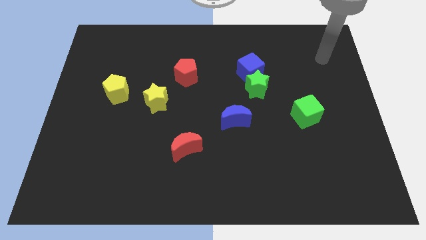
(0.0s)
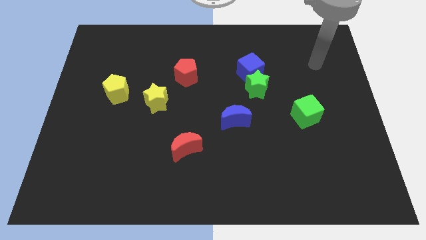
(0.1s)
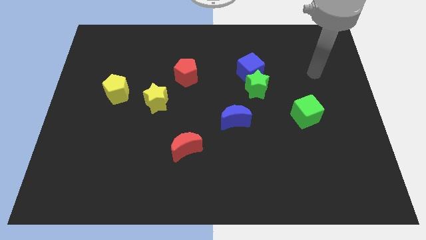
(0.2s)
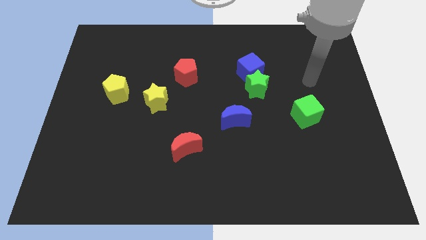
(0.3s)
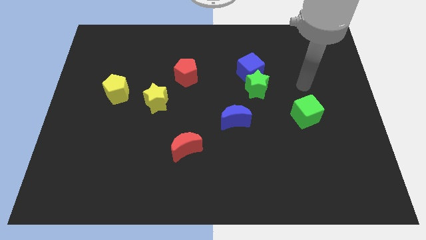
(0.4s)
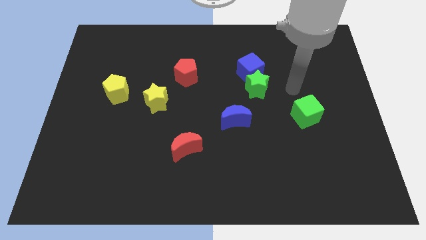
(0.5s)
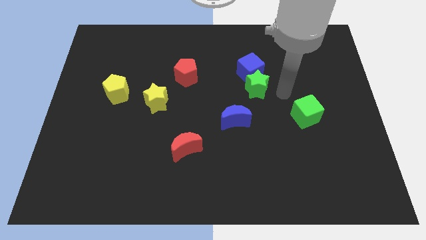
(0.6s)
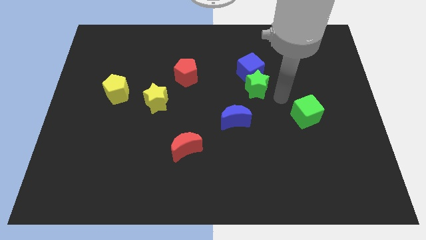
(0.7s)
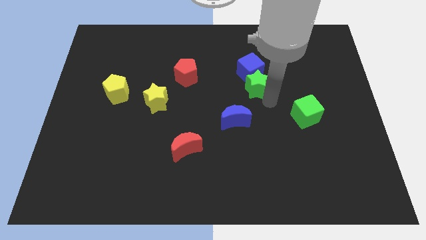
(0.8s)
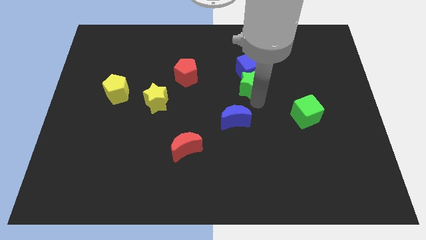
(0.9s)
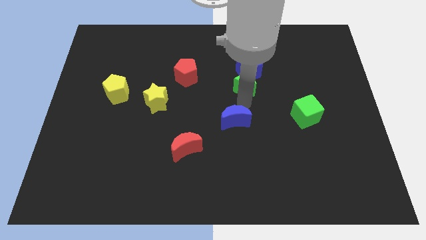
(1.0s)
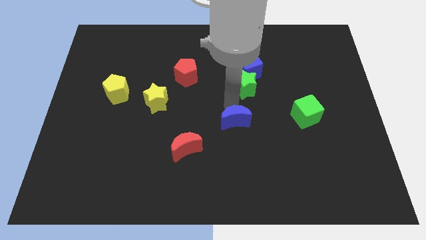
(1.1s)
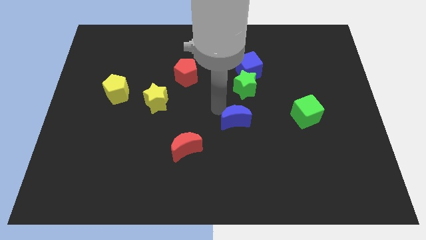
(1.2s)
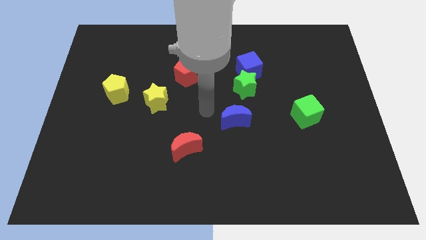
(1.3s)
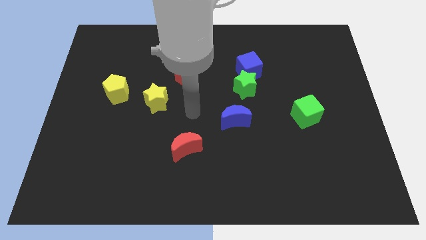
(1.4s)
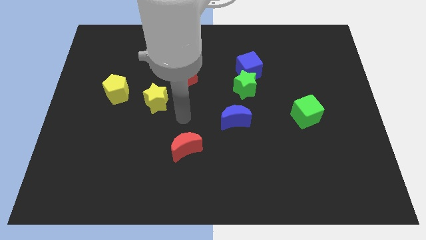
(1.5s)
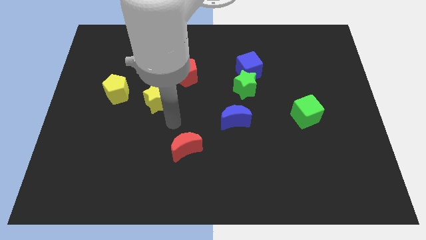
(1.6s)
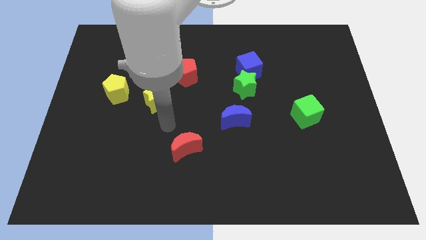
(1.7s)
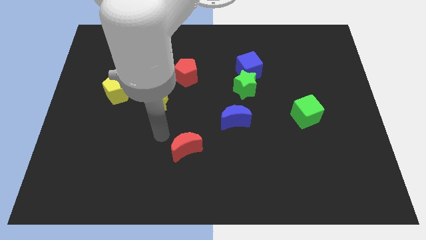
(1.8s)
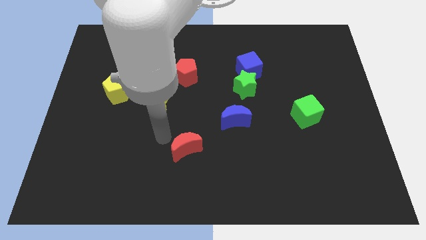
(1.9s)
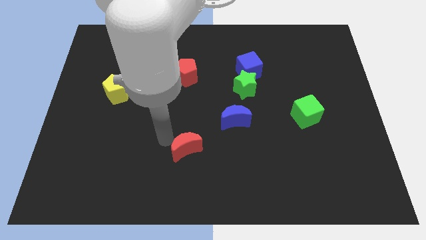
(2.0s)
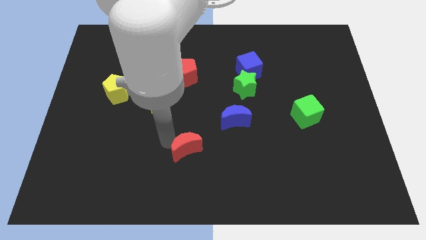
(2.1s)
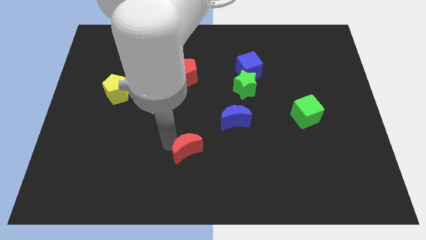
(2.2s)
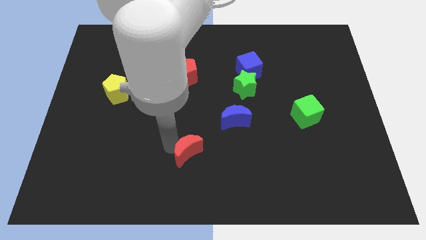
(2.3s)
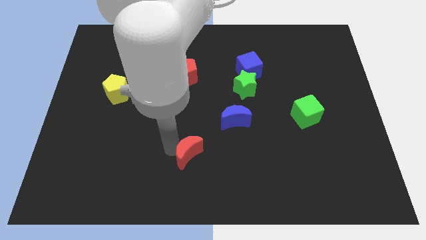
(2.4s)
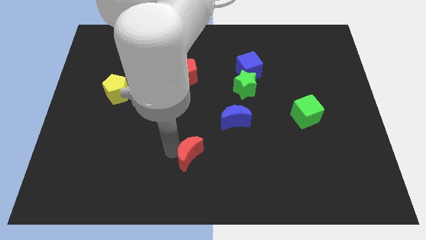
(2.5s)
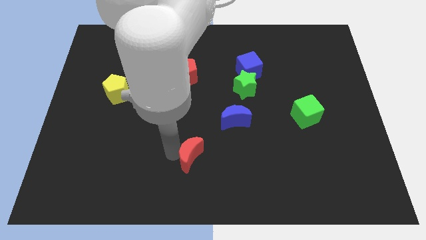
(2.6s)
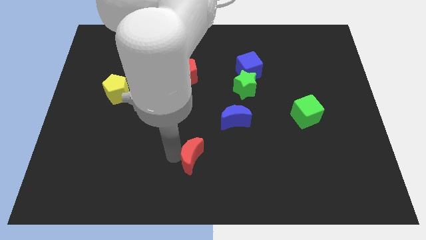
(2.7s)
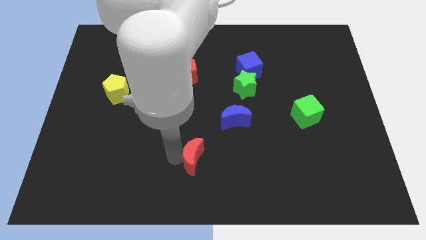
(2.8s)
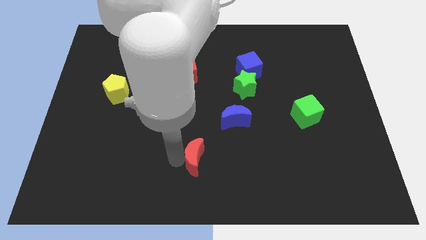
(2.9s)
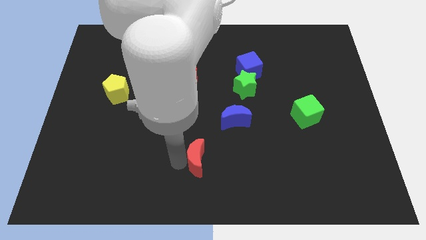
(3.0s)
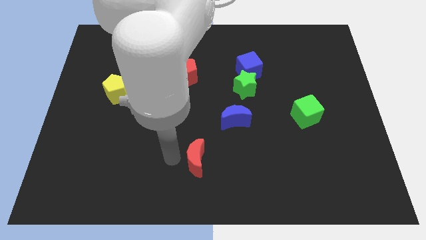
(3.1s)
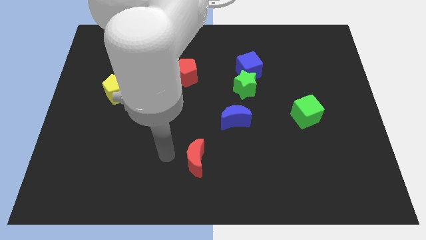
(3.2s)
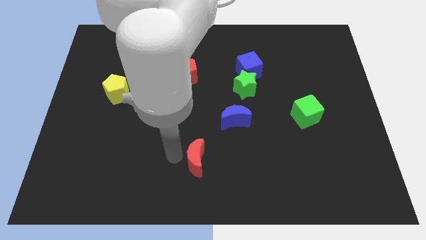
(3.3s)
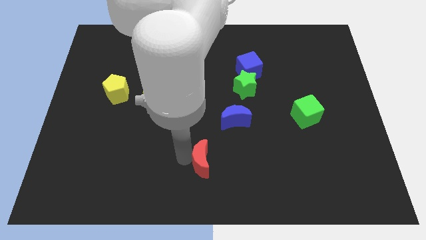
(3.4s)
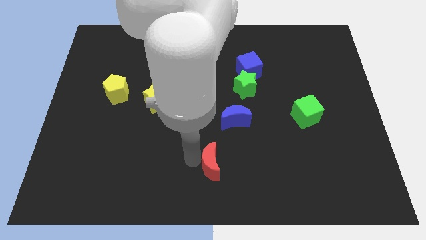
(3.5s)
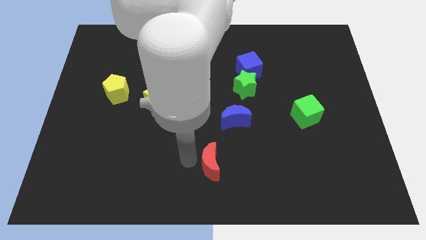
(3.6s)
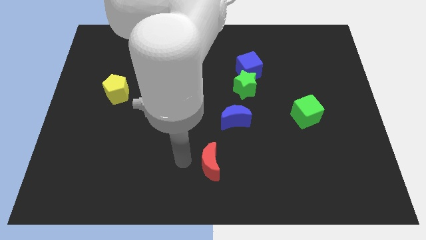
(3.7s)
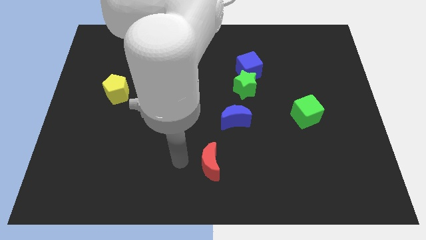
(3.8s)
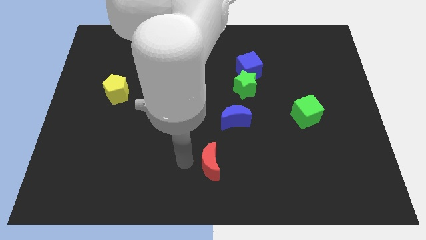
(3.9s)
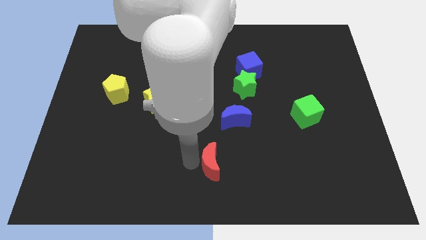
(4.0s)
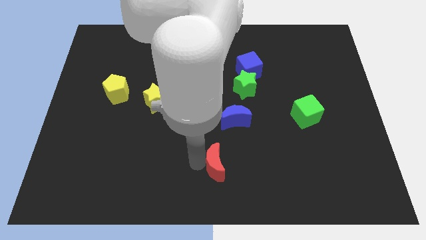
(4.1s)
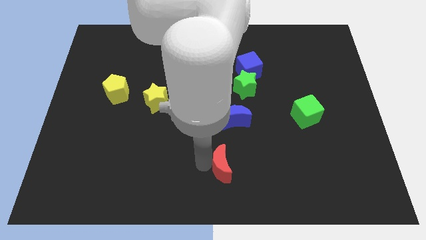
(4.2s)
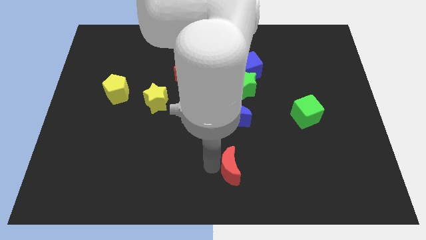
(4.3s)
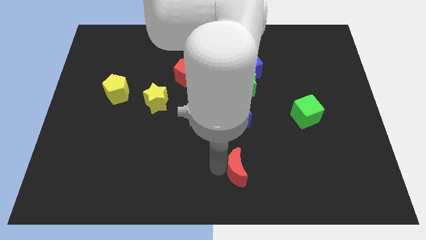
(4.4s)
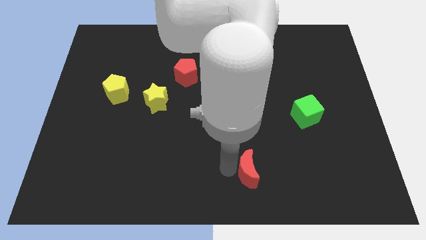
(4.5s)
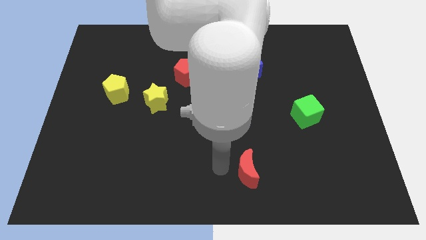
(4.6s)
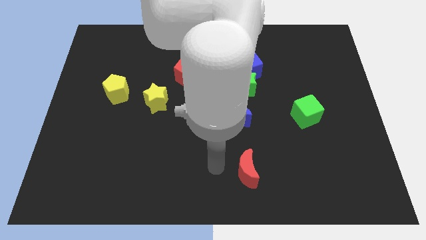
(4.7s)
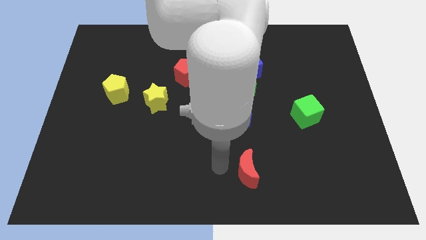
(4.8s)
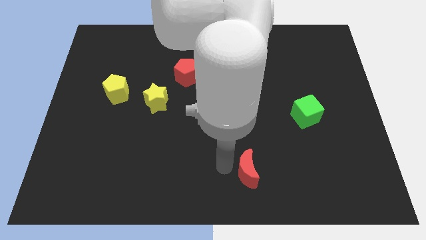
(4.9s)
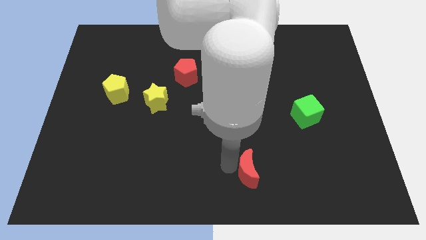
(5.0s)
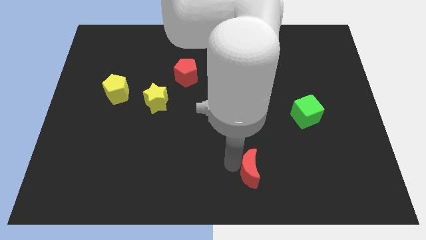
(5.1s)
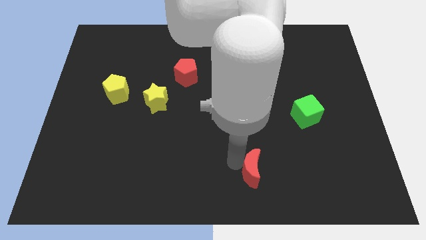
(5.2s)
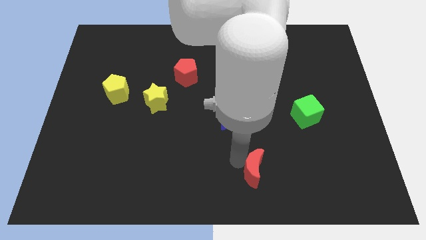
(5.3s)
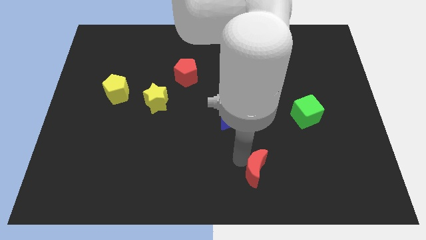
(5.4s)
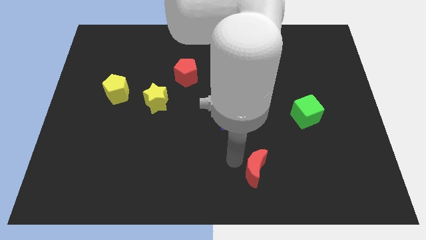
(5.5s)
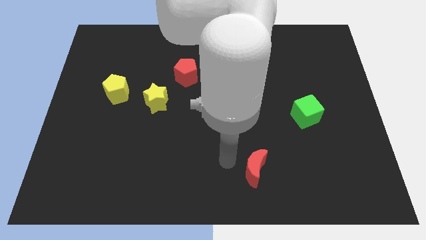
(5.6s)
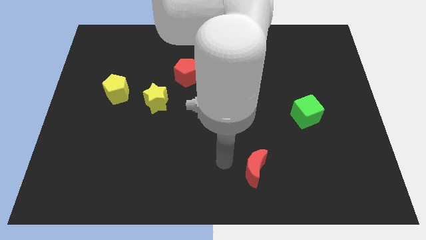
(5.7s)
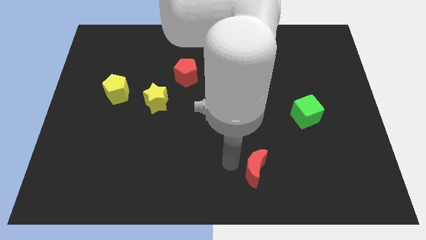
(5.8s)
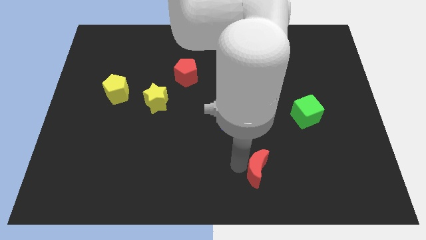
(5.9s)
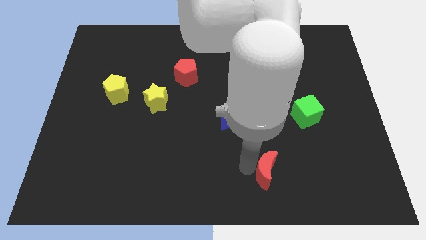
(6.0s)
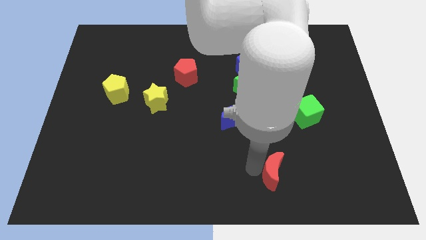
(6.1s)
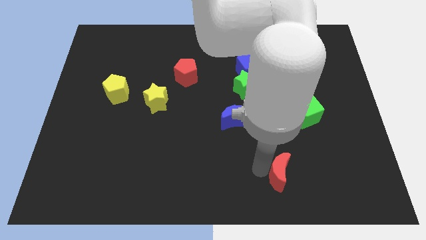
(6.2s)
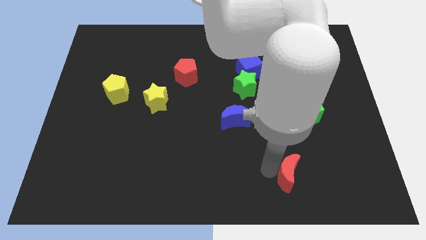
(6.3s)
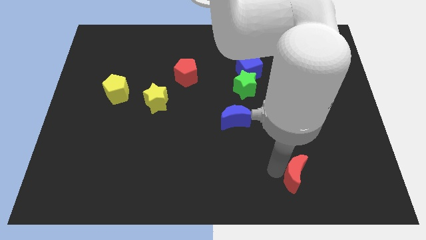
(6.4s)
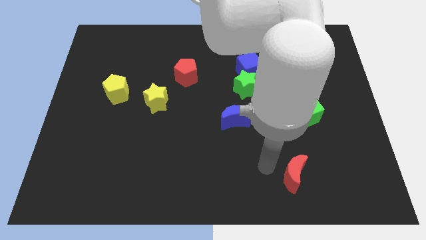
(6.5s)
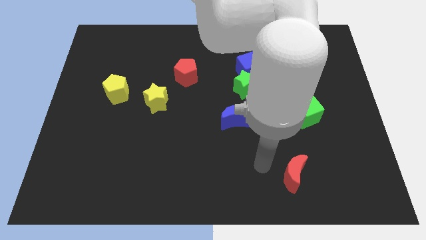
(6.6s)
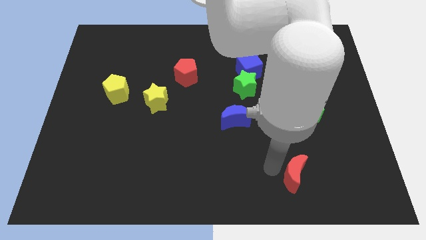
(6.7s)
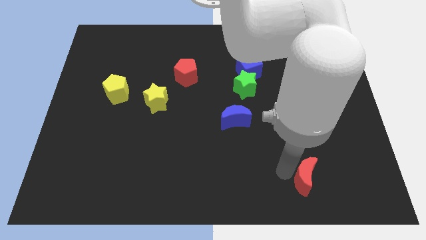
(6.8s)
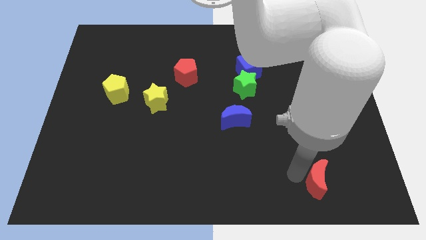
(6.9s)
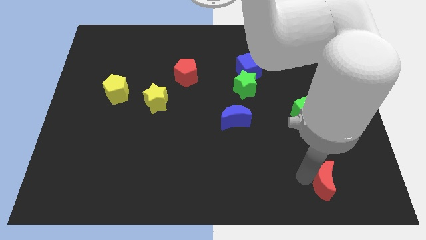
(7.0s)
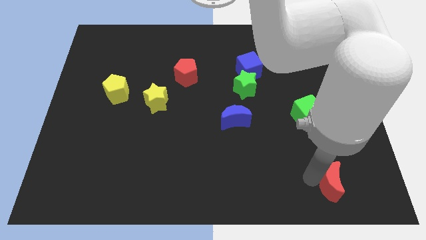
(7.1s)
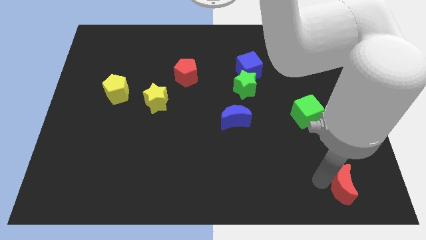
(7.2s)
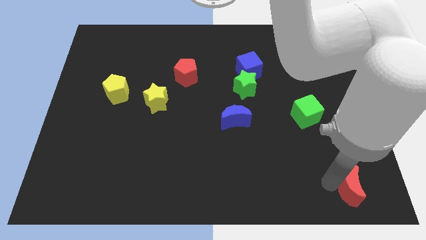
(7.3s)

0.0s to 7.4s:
push the red moon to the bottom right corner
